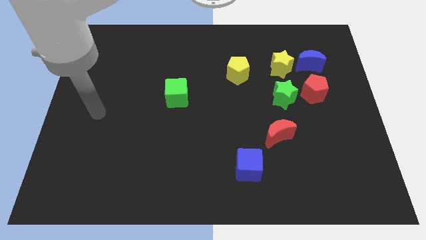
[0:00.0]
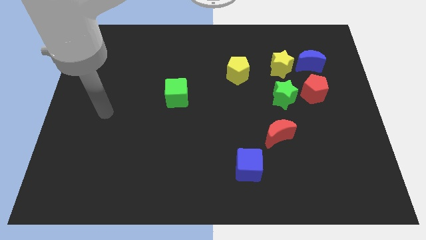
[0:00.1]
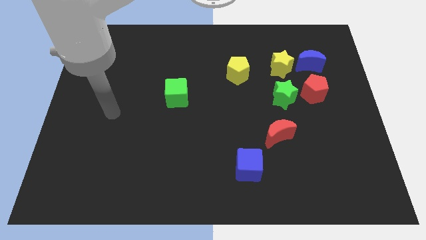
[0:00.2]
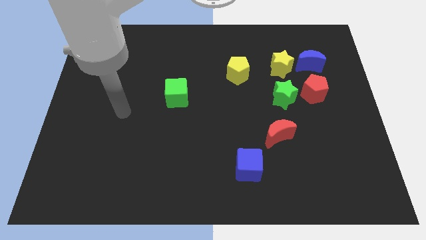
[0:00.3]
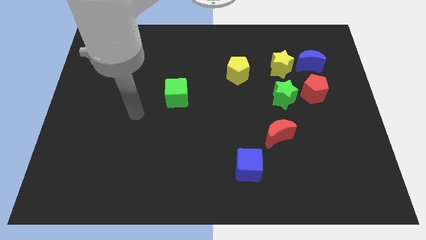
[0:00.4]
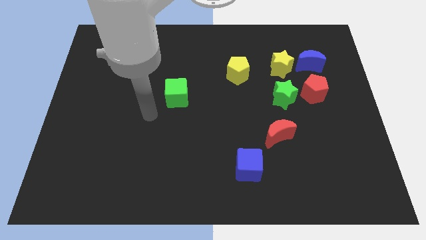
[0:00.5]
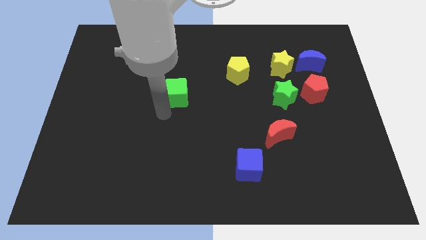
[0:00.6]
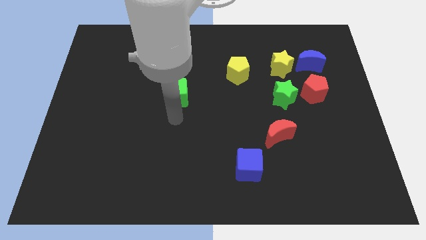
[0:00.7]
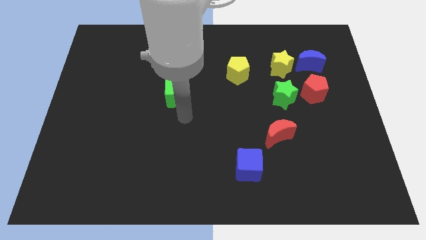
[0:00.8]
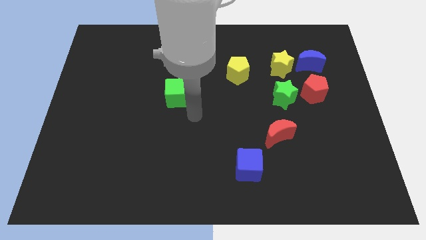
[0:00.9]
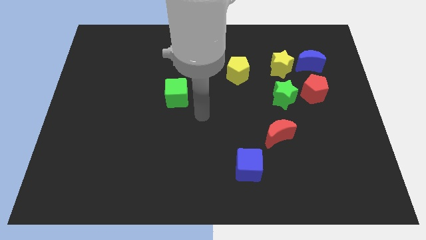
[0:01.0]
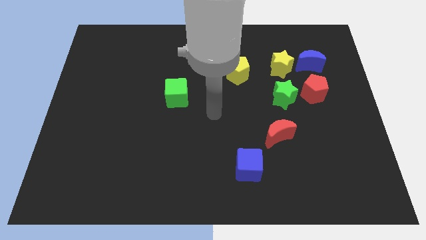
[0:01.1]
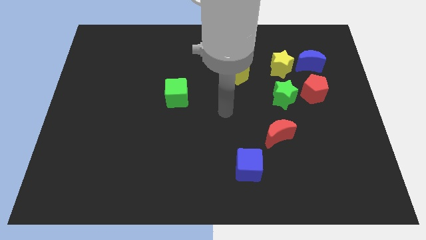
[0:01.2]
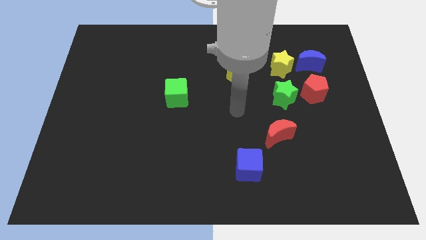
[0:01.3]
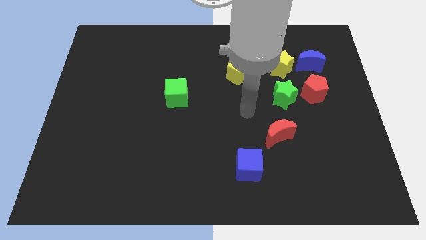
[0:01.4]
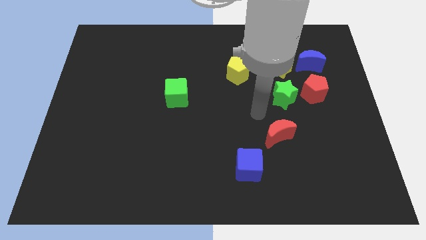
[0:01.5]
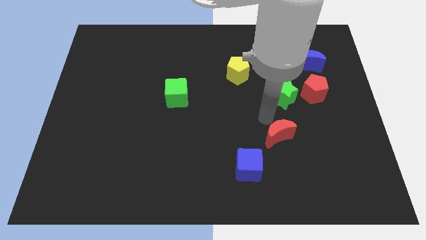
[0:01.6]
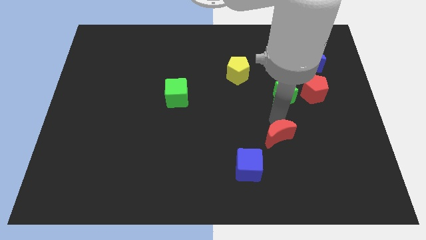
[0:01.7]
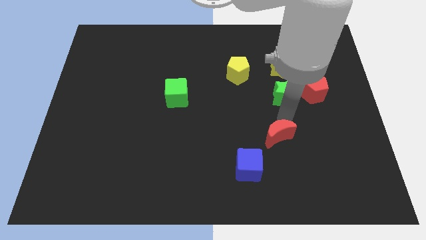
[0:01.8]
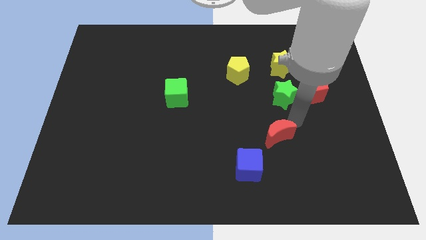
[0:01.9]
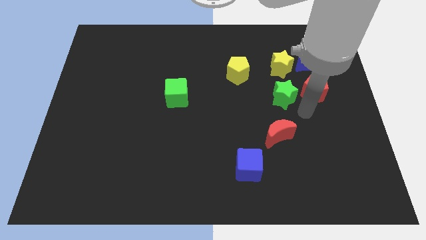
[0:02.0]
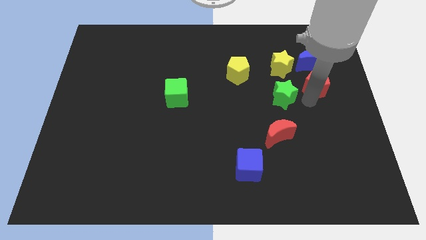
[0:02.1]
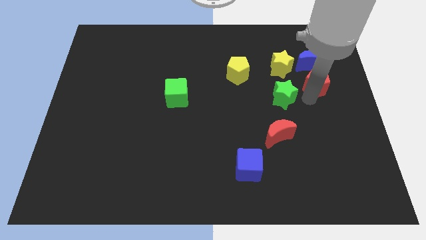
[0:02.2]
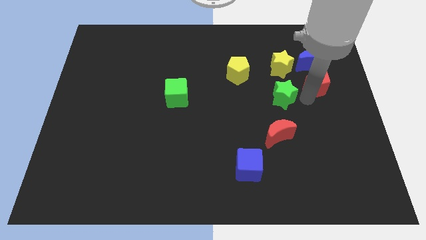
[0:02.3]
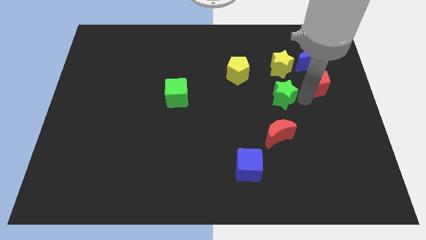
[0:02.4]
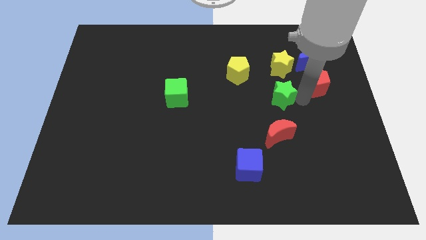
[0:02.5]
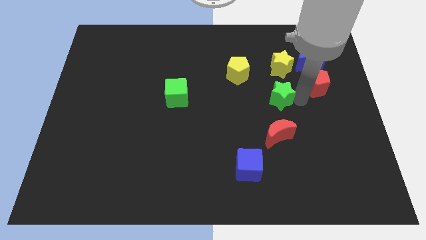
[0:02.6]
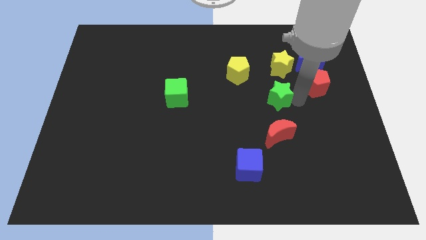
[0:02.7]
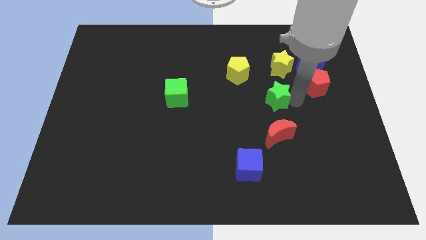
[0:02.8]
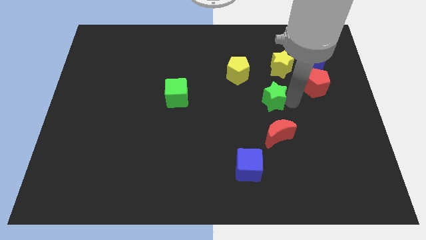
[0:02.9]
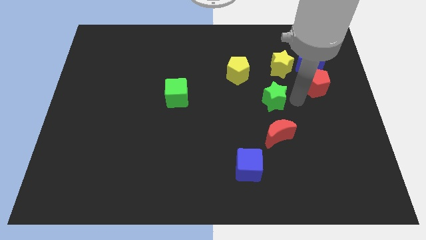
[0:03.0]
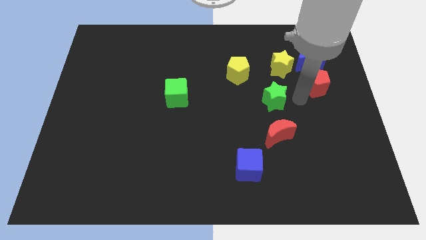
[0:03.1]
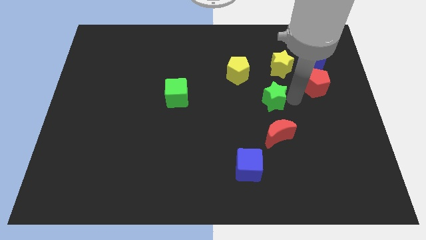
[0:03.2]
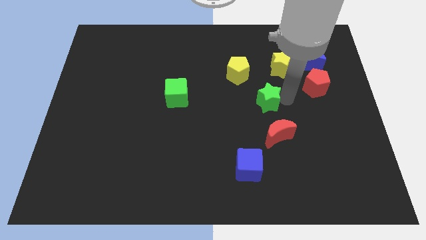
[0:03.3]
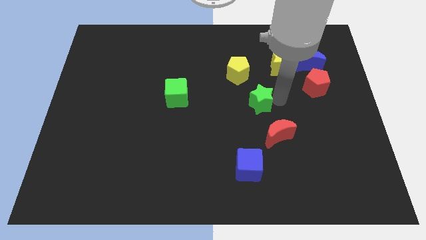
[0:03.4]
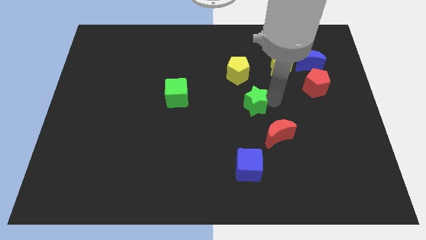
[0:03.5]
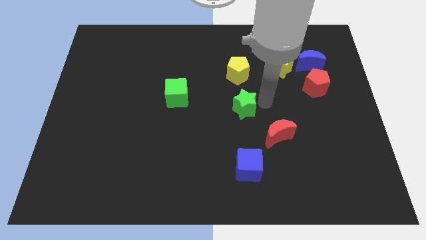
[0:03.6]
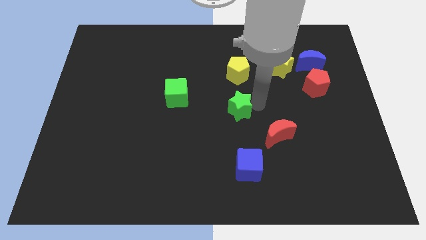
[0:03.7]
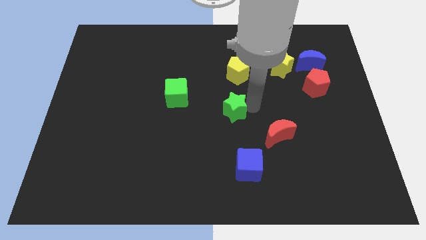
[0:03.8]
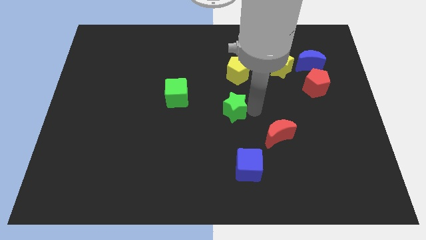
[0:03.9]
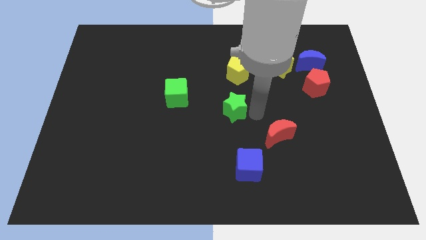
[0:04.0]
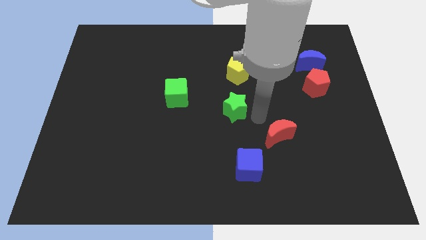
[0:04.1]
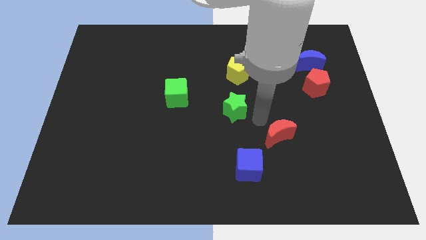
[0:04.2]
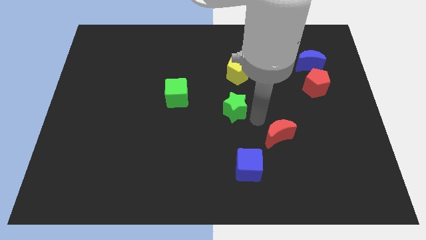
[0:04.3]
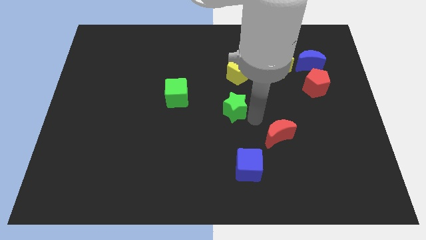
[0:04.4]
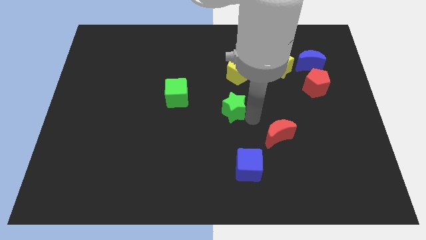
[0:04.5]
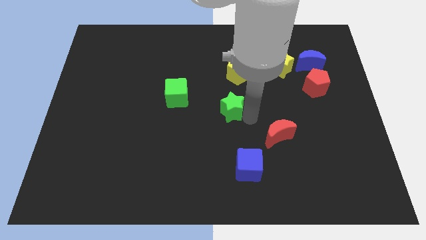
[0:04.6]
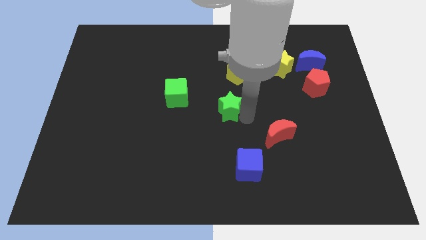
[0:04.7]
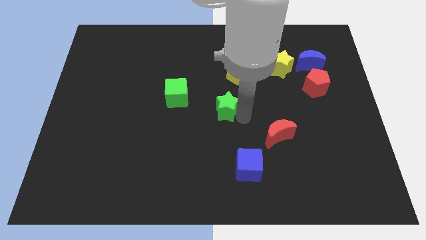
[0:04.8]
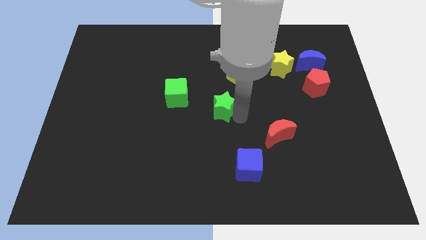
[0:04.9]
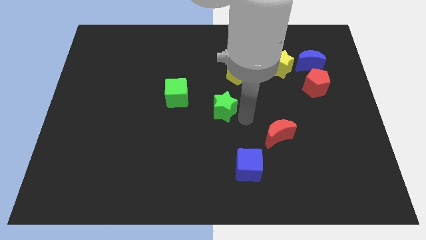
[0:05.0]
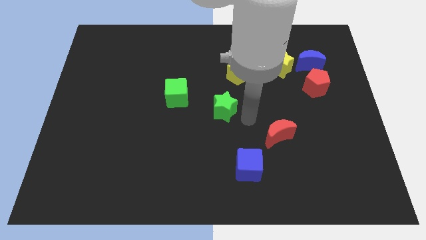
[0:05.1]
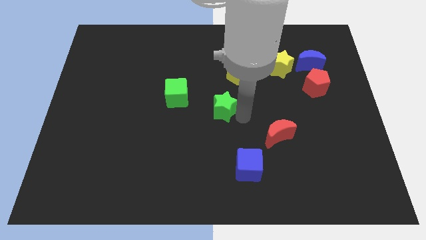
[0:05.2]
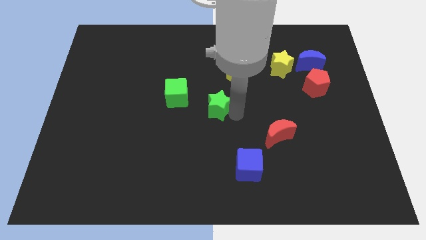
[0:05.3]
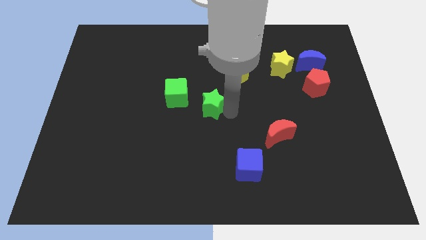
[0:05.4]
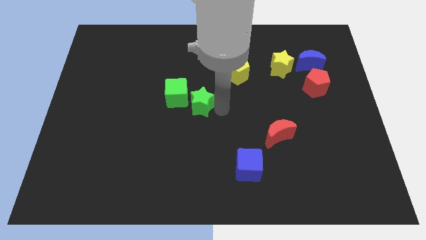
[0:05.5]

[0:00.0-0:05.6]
move the green star next to the green cube

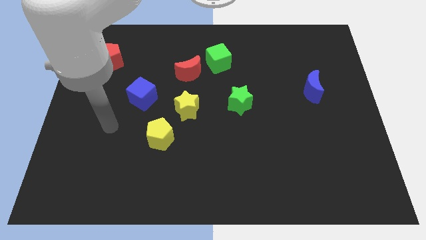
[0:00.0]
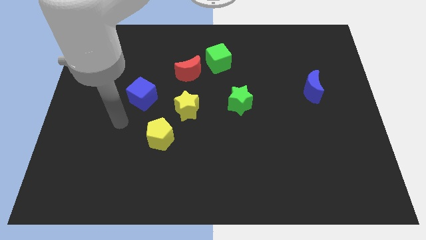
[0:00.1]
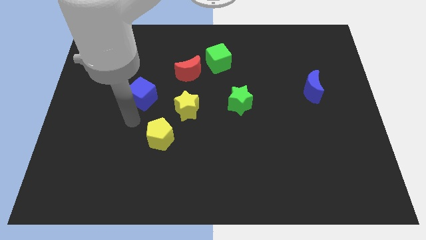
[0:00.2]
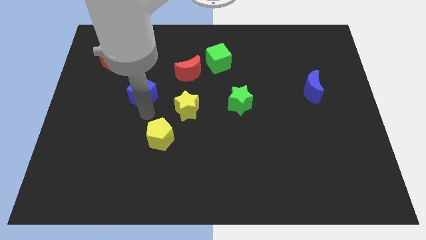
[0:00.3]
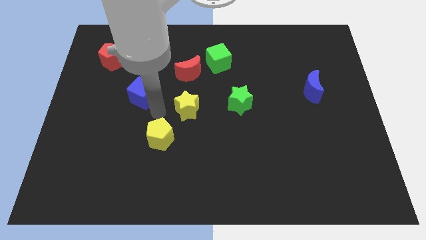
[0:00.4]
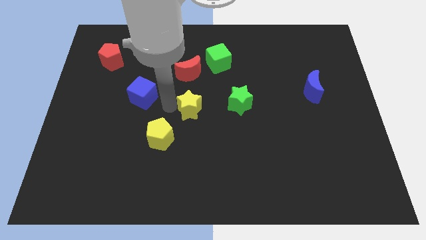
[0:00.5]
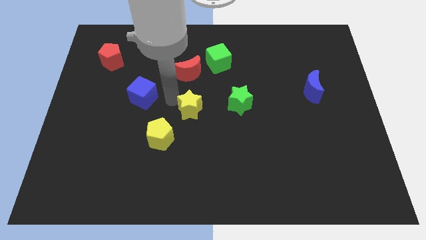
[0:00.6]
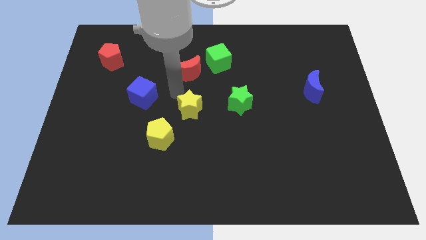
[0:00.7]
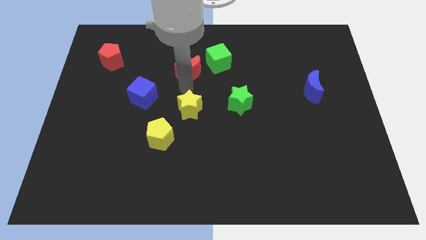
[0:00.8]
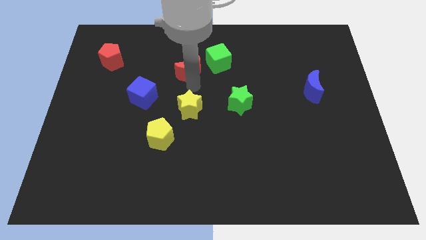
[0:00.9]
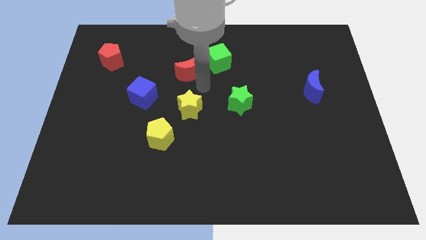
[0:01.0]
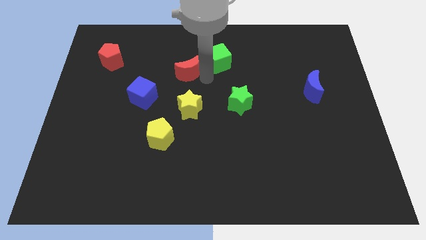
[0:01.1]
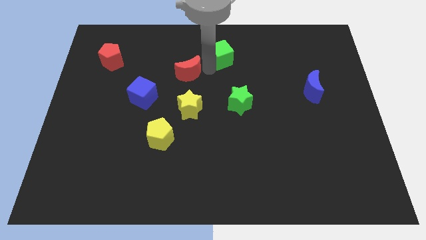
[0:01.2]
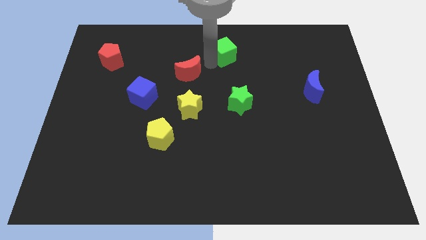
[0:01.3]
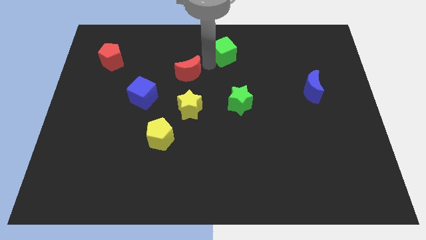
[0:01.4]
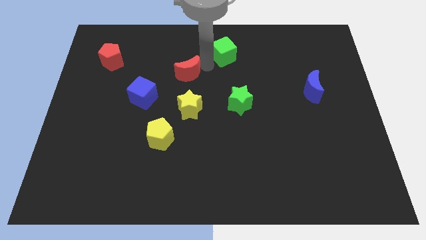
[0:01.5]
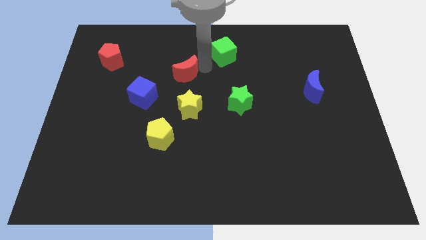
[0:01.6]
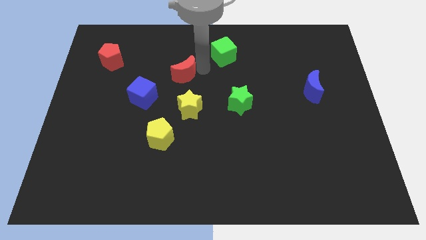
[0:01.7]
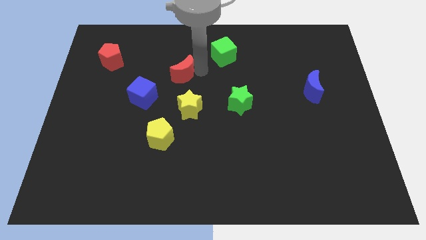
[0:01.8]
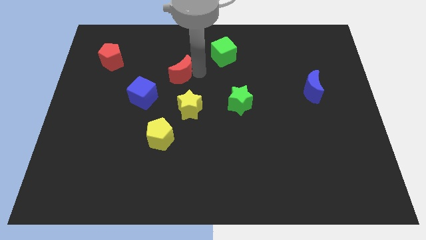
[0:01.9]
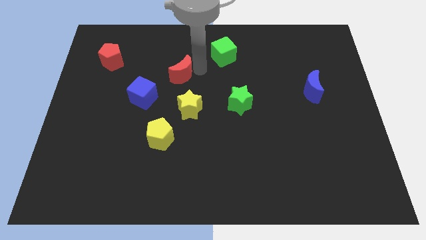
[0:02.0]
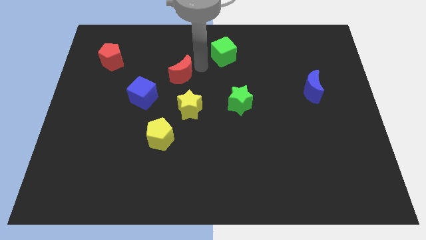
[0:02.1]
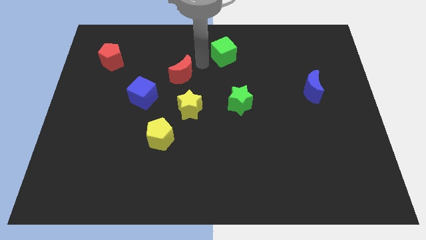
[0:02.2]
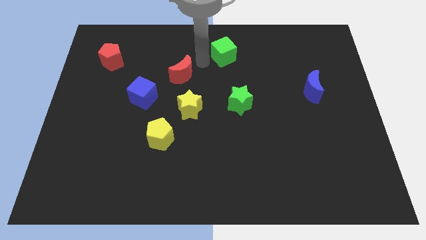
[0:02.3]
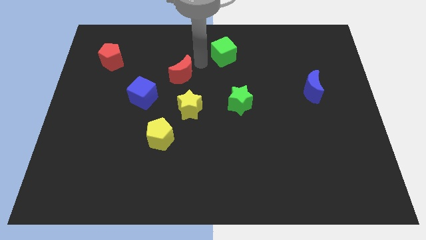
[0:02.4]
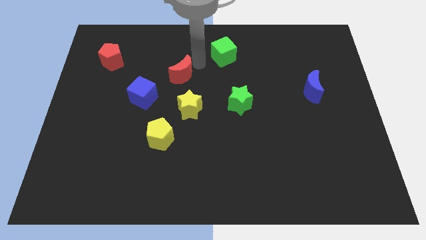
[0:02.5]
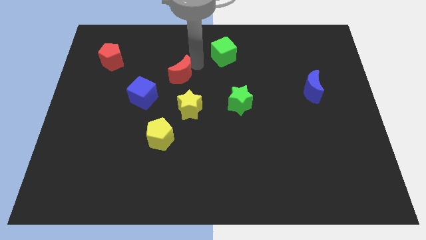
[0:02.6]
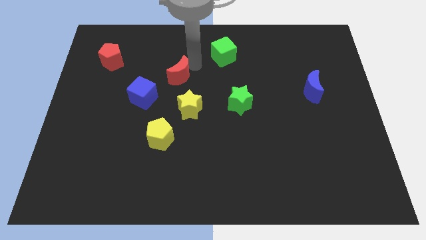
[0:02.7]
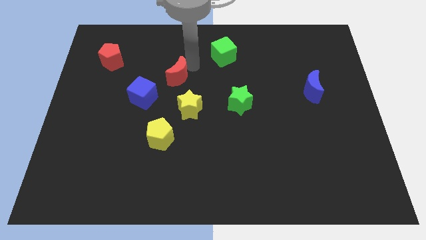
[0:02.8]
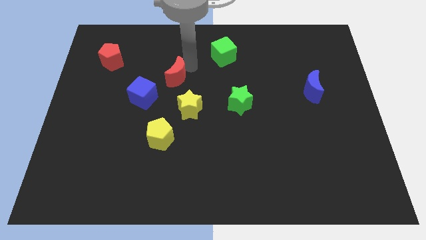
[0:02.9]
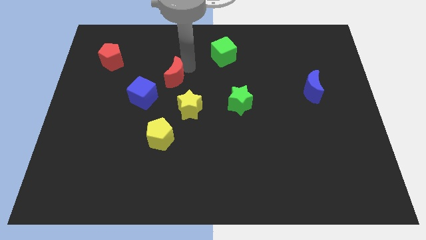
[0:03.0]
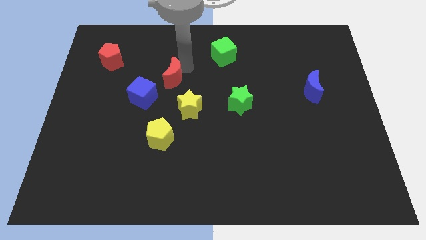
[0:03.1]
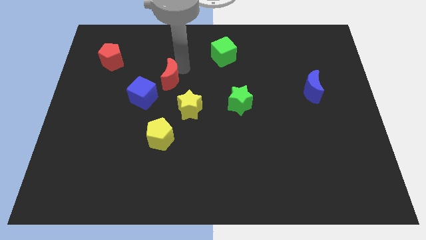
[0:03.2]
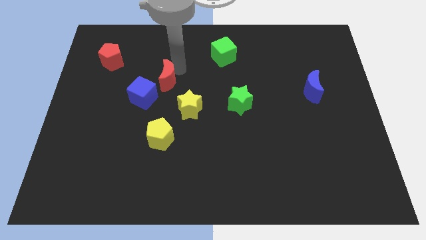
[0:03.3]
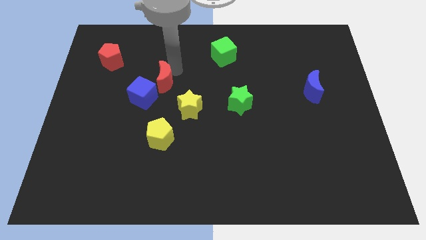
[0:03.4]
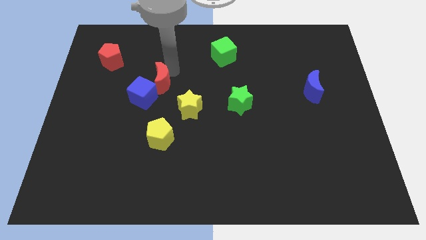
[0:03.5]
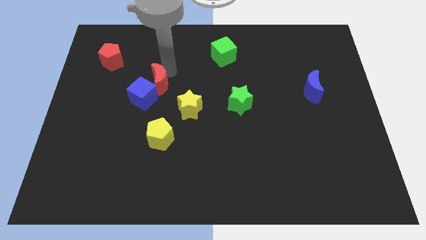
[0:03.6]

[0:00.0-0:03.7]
move the red moon next to the blue cube
